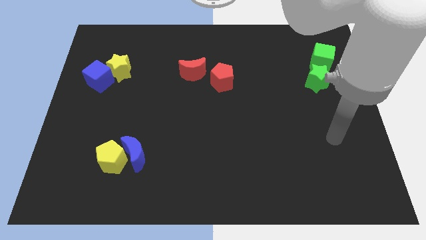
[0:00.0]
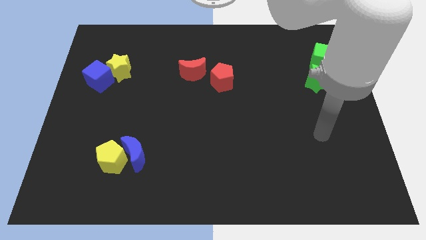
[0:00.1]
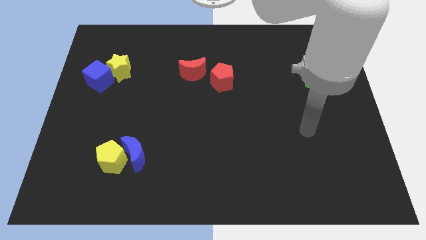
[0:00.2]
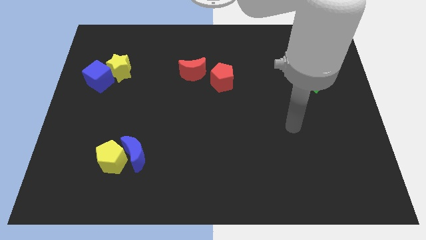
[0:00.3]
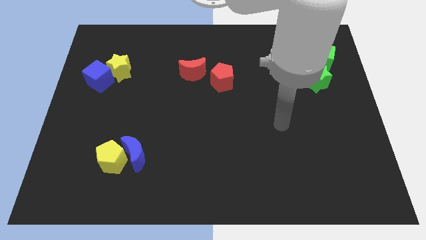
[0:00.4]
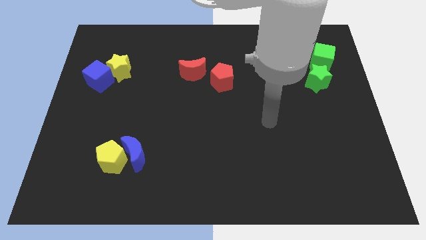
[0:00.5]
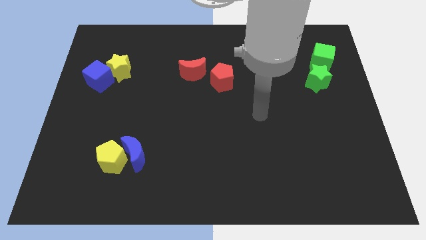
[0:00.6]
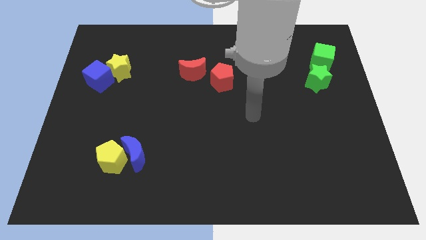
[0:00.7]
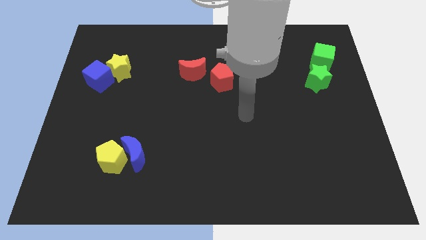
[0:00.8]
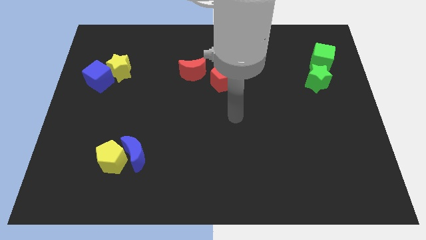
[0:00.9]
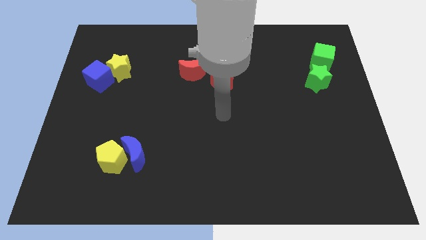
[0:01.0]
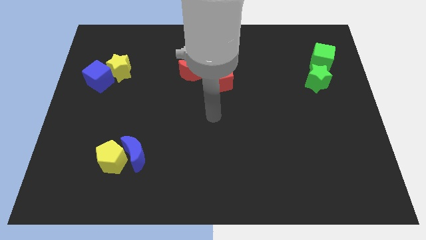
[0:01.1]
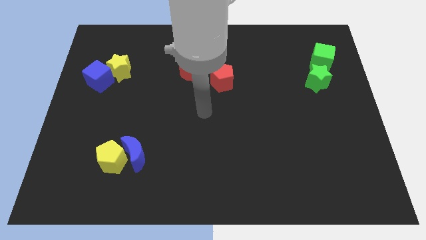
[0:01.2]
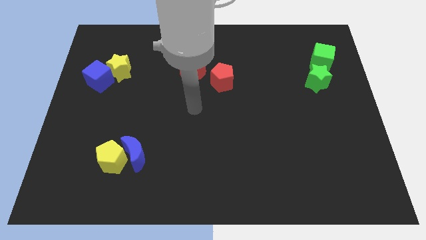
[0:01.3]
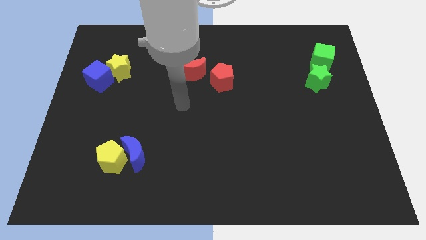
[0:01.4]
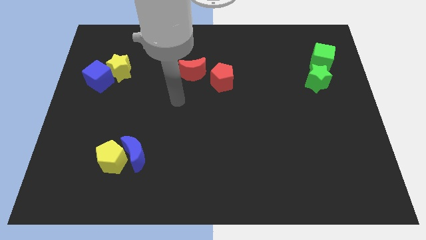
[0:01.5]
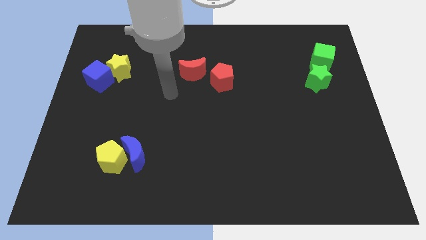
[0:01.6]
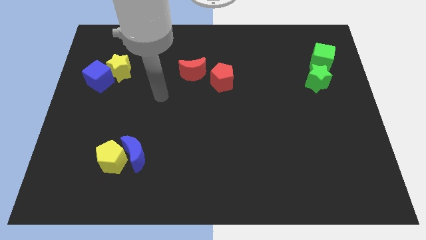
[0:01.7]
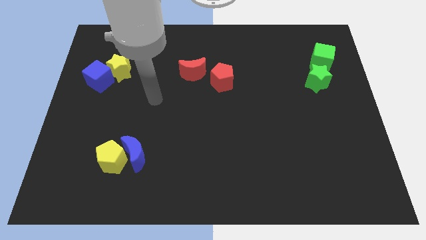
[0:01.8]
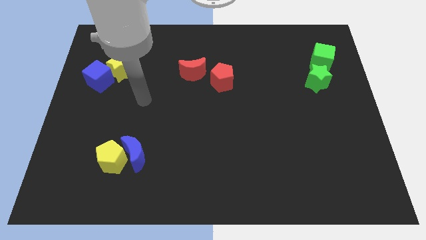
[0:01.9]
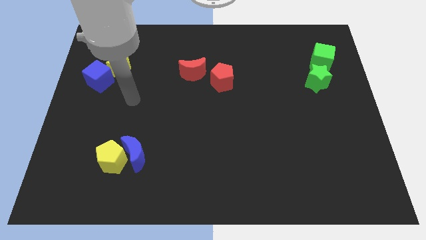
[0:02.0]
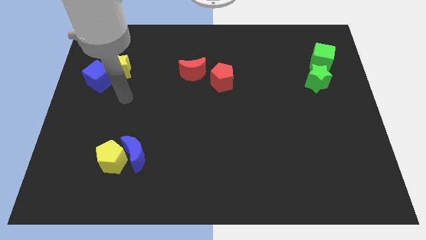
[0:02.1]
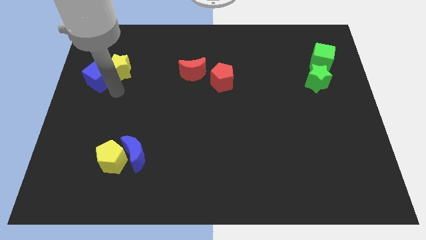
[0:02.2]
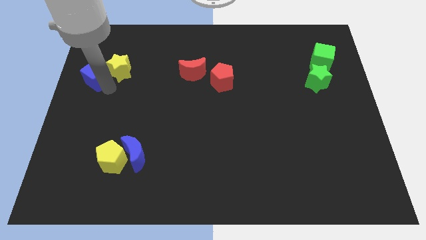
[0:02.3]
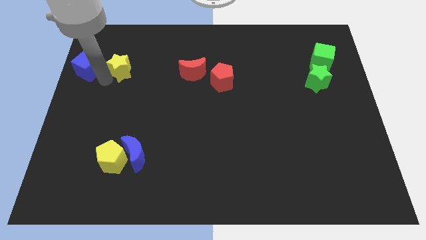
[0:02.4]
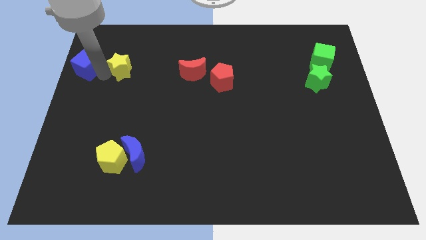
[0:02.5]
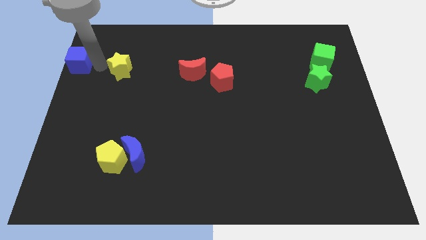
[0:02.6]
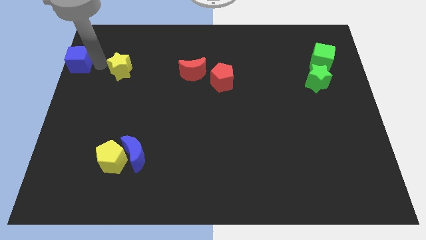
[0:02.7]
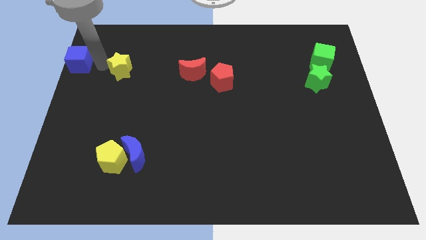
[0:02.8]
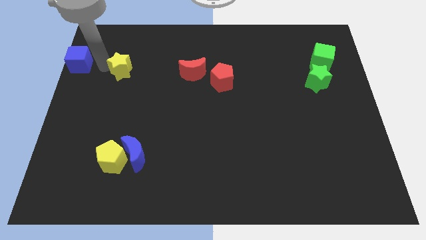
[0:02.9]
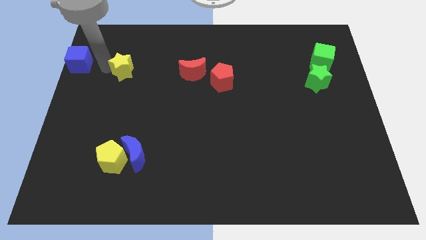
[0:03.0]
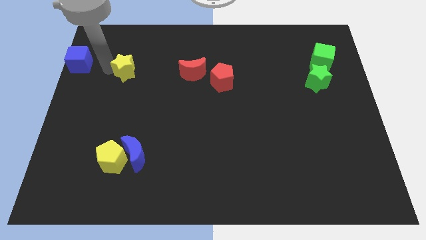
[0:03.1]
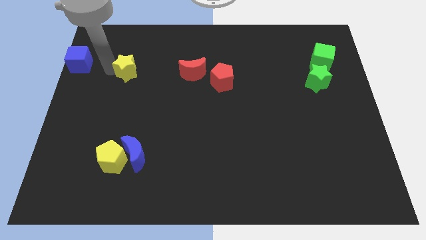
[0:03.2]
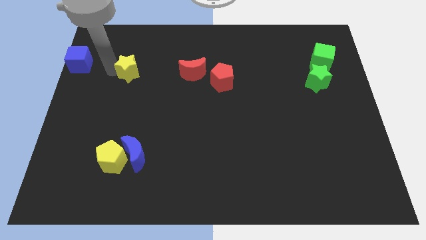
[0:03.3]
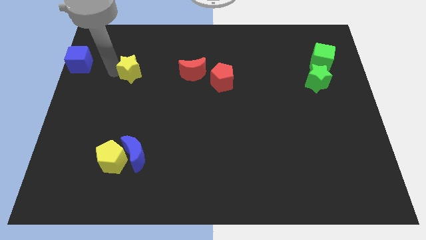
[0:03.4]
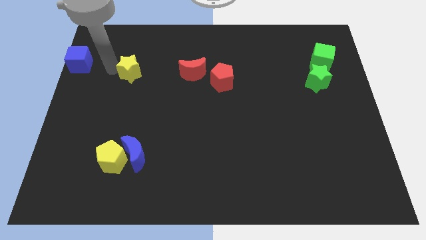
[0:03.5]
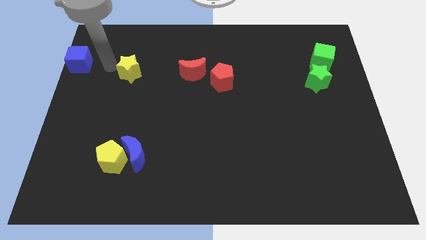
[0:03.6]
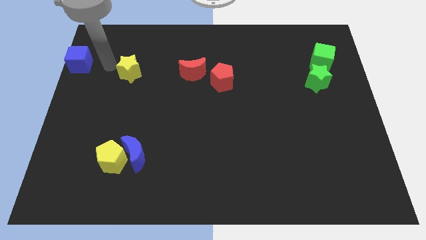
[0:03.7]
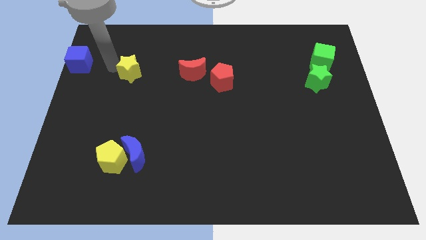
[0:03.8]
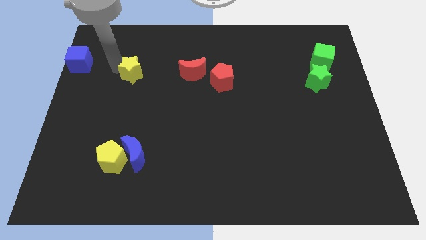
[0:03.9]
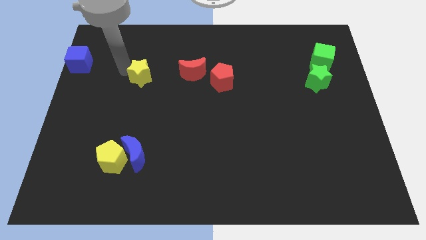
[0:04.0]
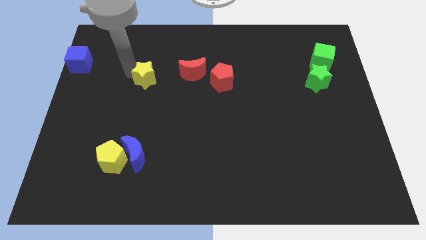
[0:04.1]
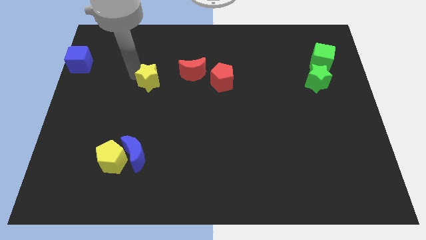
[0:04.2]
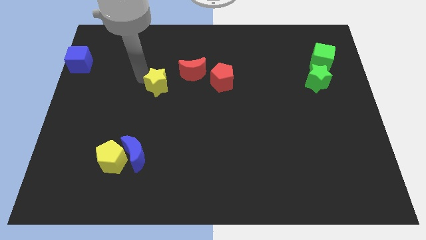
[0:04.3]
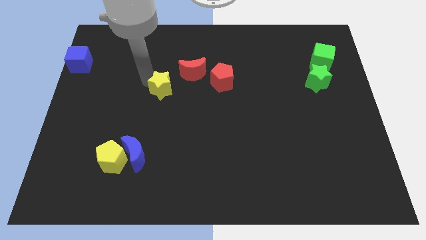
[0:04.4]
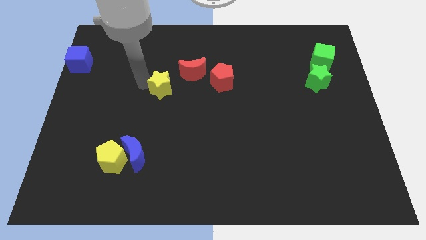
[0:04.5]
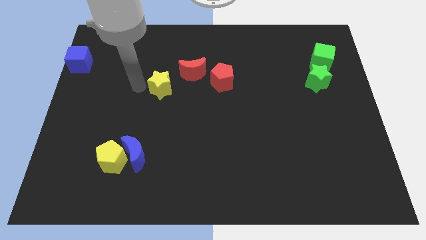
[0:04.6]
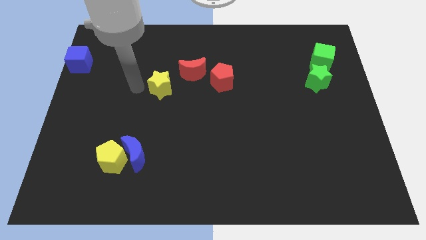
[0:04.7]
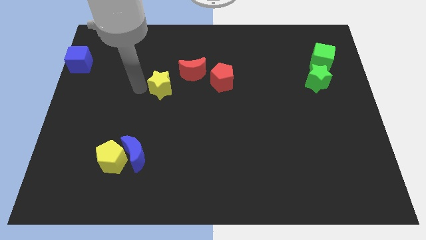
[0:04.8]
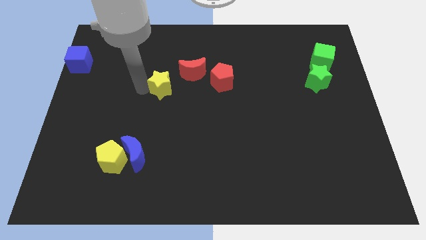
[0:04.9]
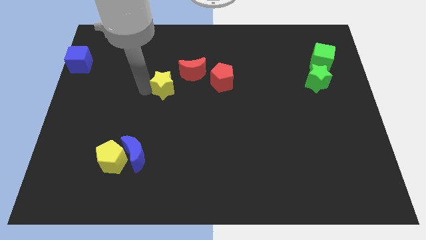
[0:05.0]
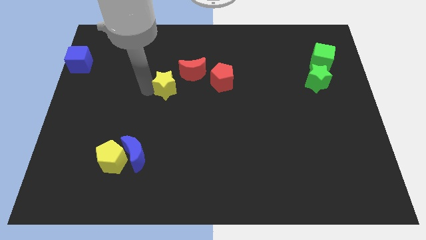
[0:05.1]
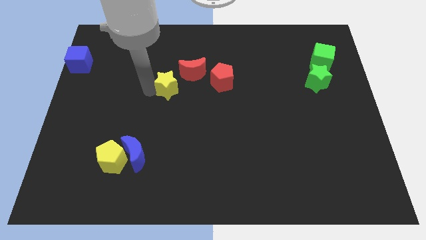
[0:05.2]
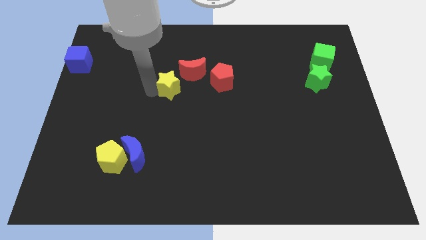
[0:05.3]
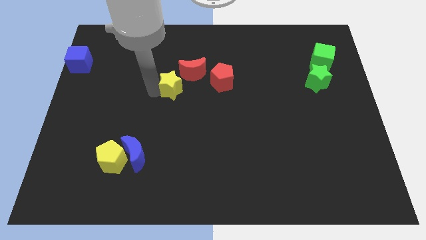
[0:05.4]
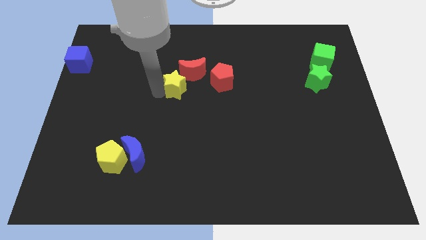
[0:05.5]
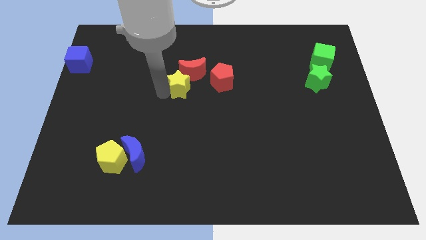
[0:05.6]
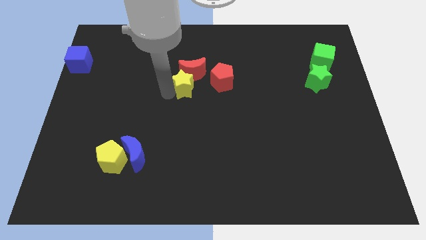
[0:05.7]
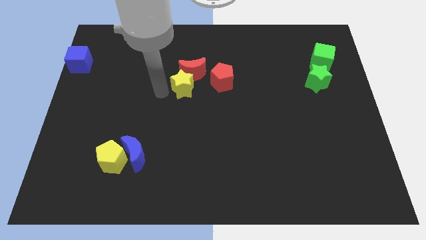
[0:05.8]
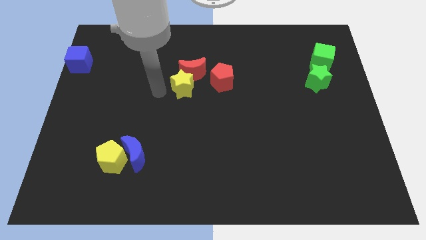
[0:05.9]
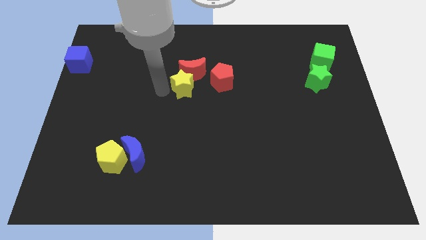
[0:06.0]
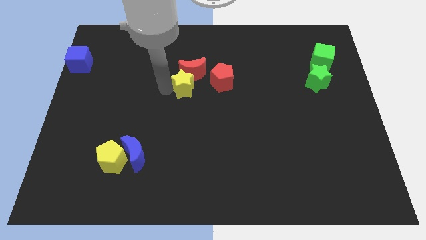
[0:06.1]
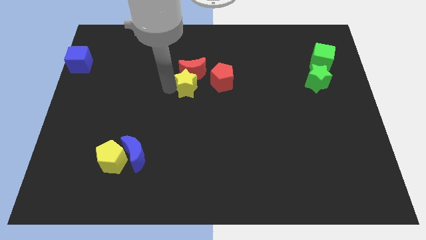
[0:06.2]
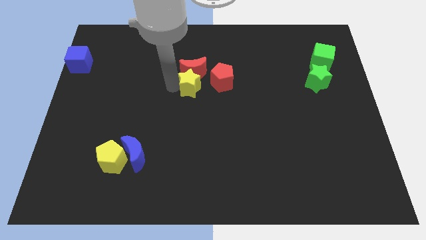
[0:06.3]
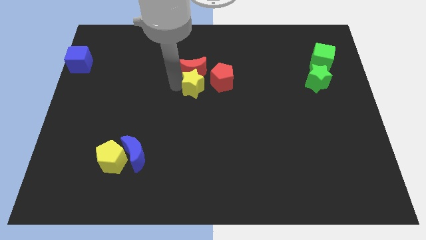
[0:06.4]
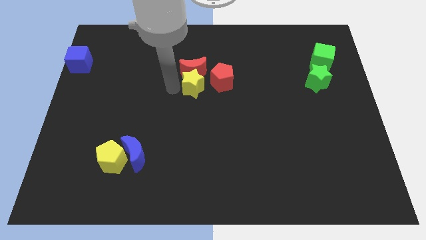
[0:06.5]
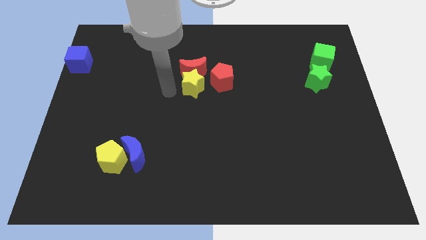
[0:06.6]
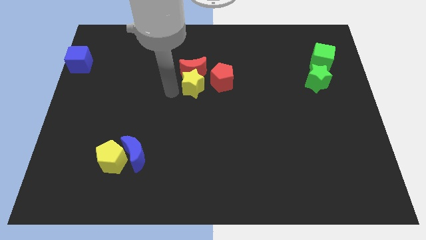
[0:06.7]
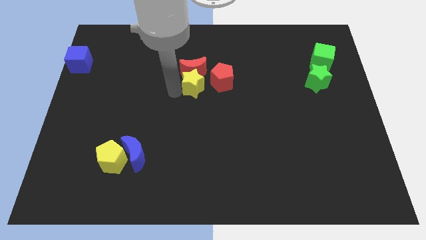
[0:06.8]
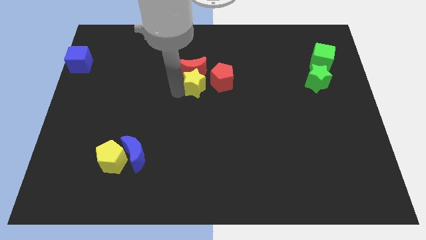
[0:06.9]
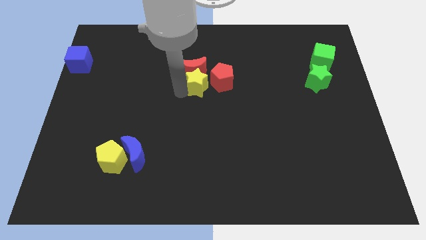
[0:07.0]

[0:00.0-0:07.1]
slide the yellow star close to the red pentagon
